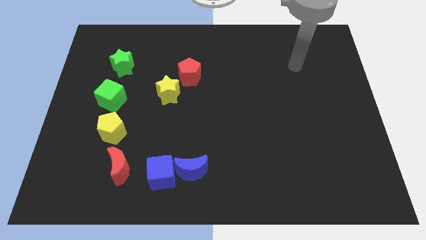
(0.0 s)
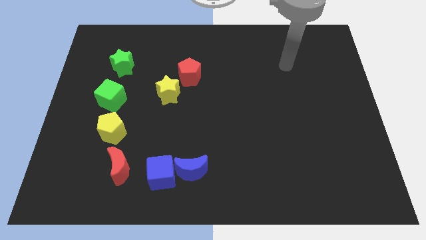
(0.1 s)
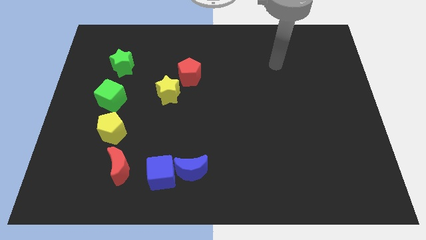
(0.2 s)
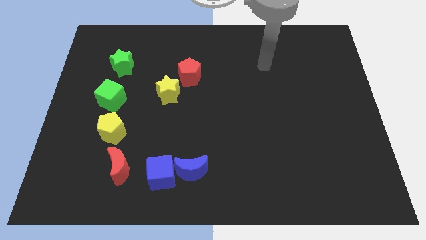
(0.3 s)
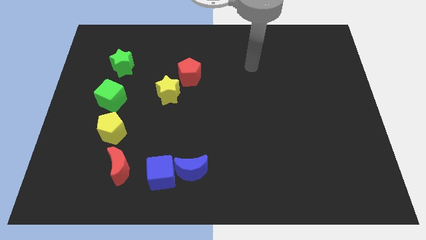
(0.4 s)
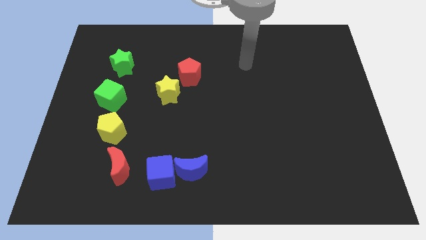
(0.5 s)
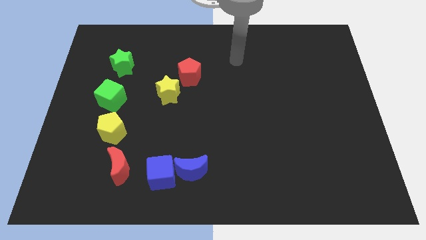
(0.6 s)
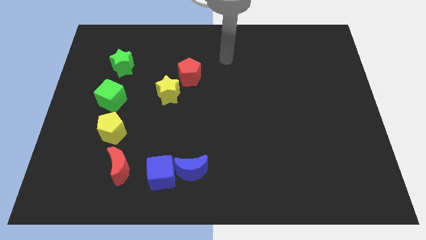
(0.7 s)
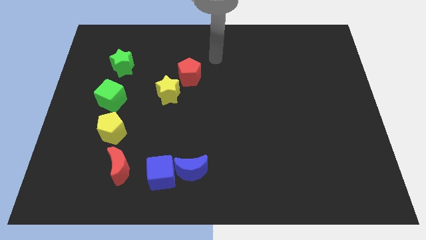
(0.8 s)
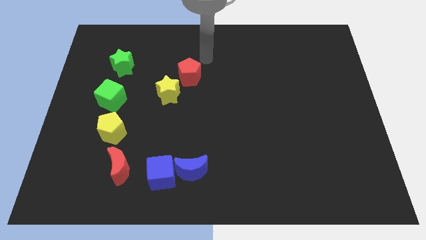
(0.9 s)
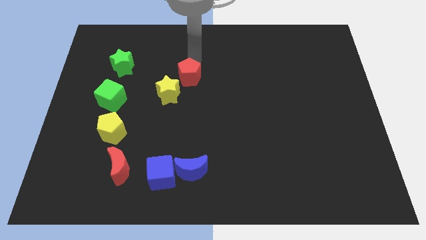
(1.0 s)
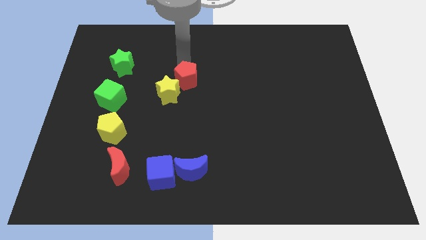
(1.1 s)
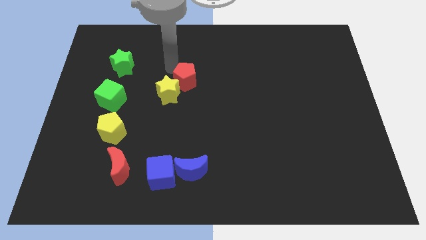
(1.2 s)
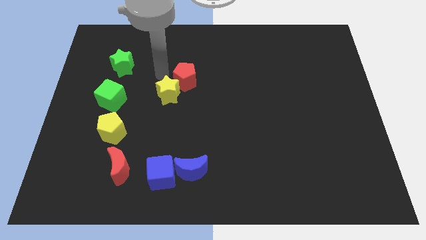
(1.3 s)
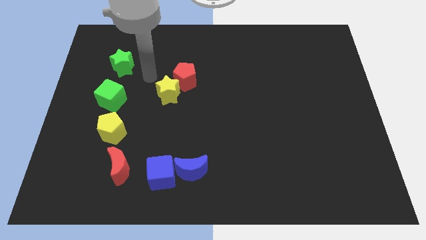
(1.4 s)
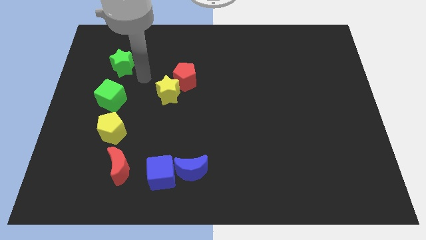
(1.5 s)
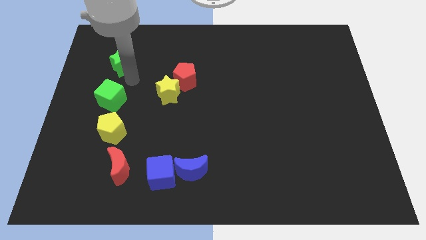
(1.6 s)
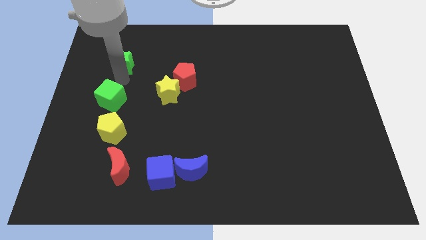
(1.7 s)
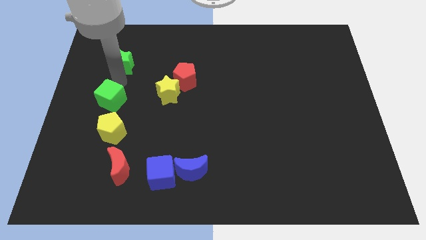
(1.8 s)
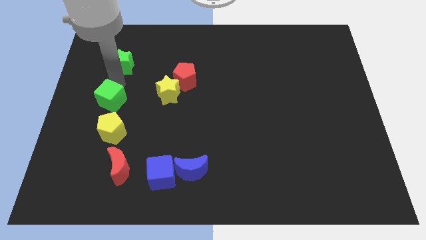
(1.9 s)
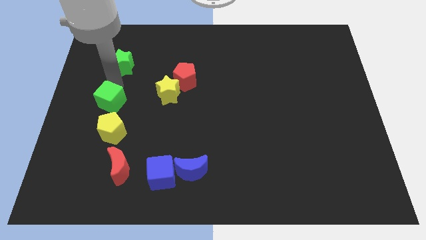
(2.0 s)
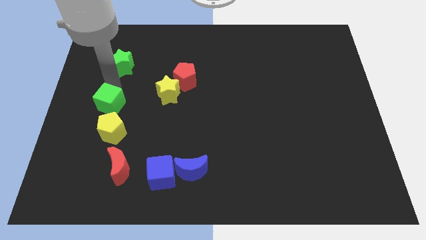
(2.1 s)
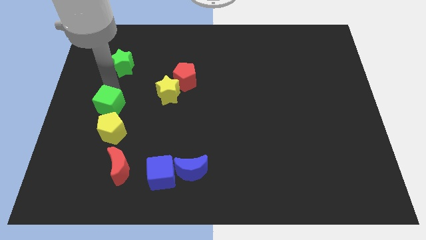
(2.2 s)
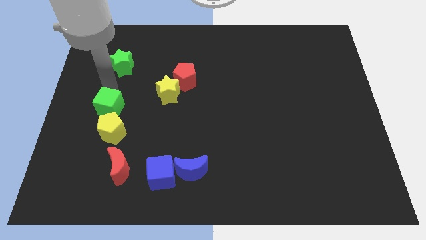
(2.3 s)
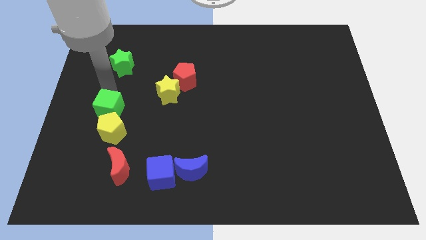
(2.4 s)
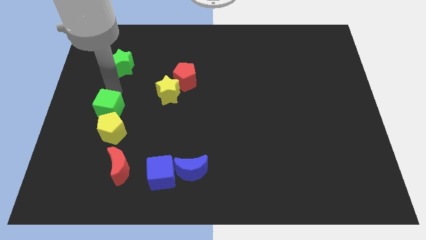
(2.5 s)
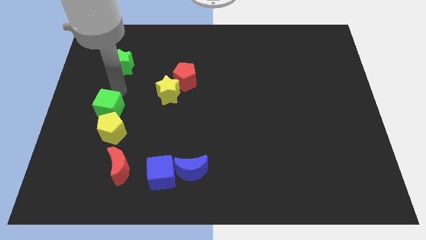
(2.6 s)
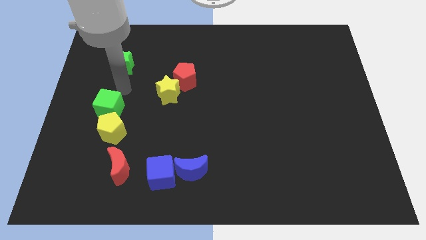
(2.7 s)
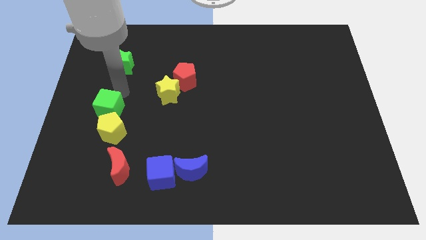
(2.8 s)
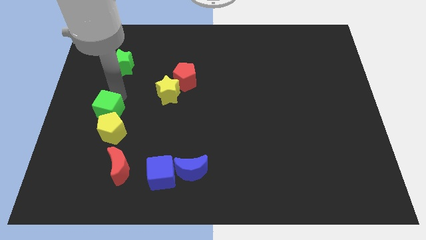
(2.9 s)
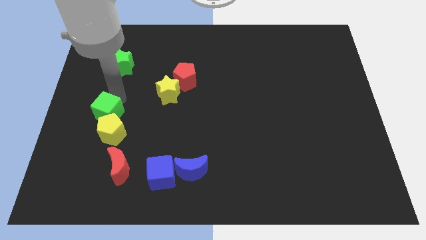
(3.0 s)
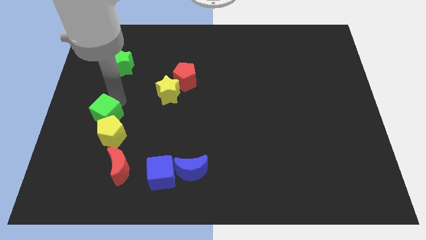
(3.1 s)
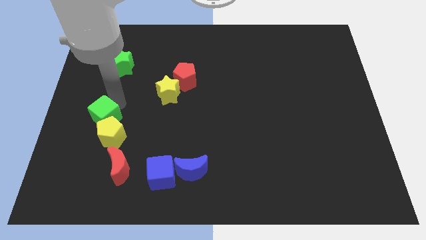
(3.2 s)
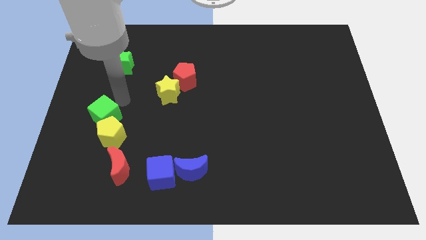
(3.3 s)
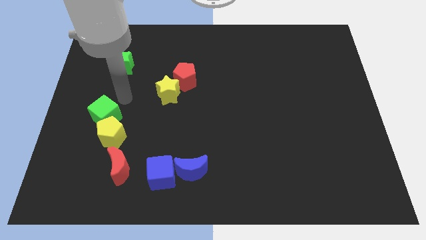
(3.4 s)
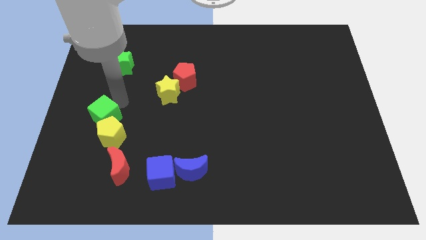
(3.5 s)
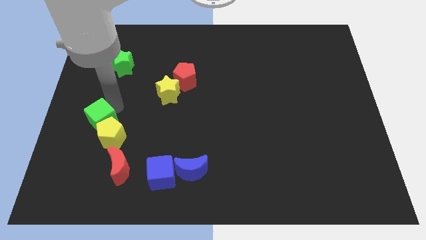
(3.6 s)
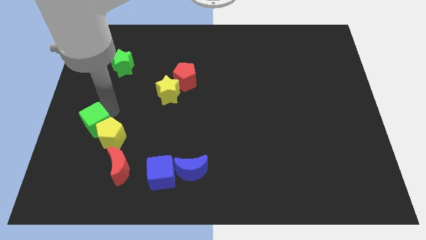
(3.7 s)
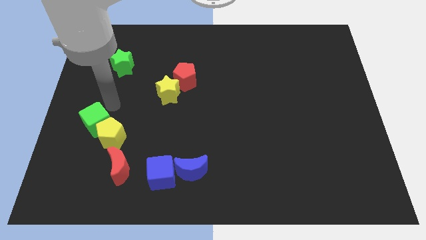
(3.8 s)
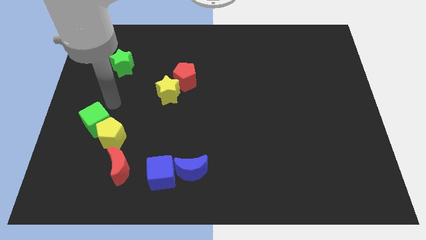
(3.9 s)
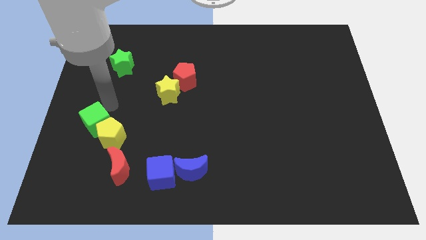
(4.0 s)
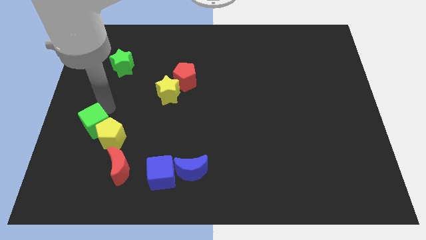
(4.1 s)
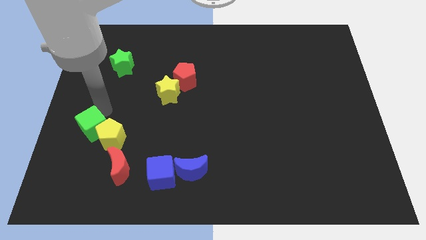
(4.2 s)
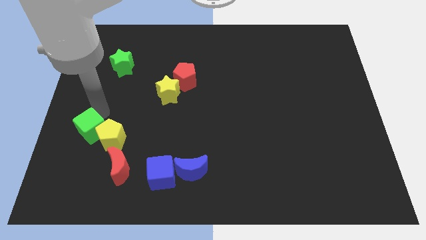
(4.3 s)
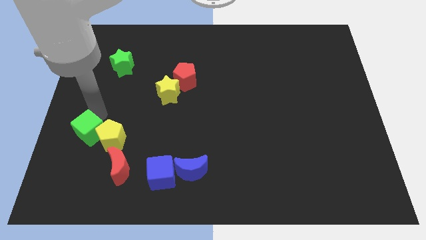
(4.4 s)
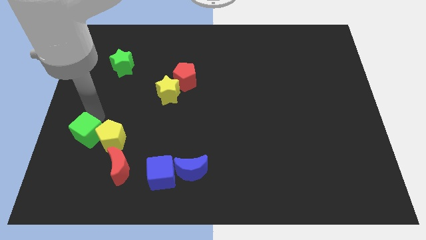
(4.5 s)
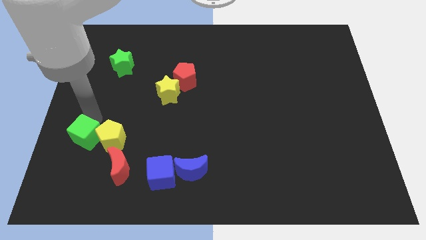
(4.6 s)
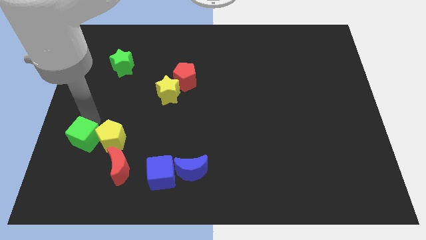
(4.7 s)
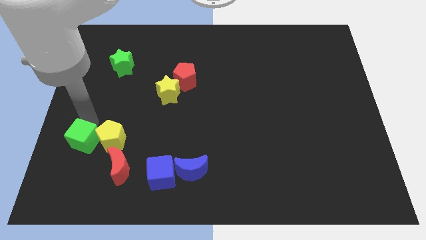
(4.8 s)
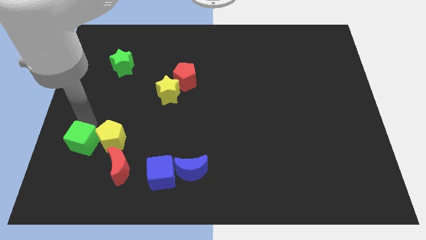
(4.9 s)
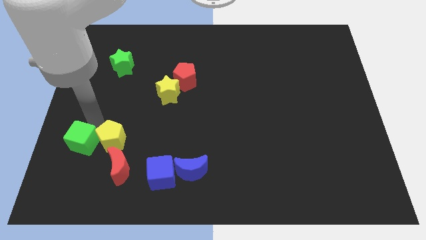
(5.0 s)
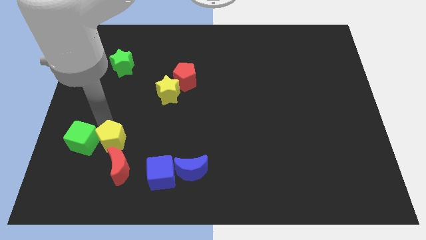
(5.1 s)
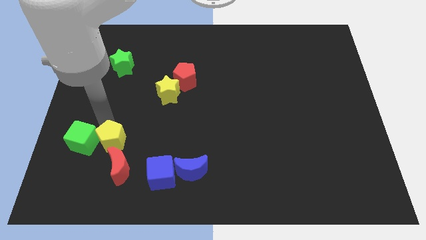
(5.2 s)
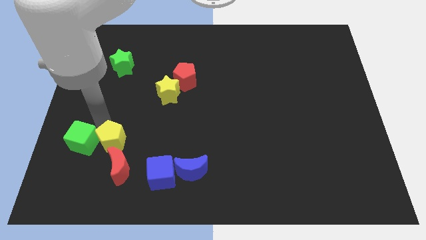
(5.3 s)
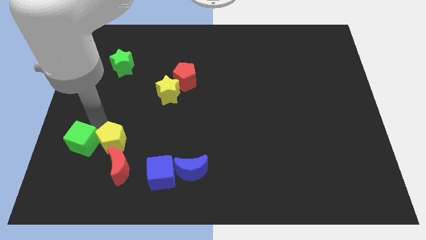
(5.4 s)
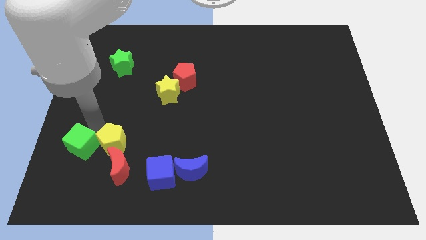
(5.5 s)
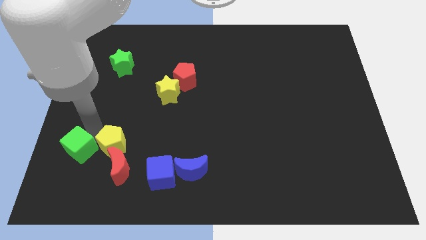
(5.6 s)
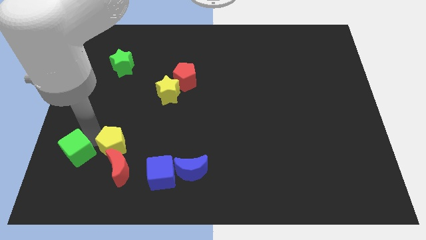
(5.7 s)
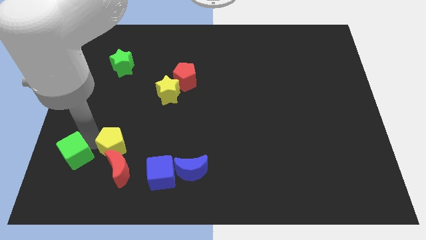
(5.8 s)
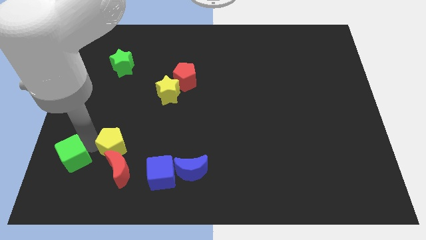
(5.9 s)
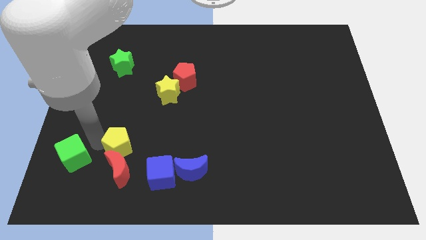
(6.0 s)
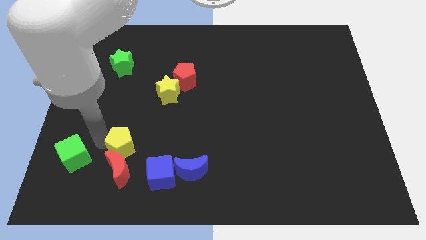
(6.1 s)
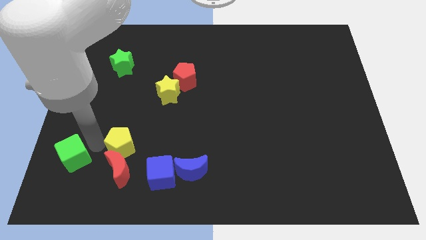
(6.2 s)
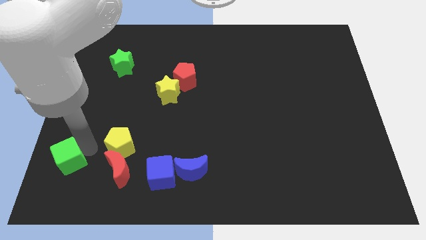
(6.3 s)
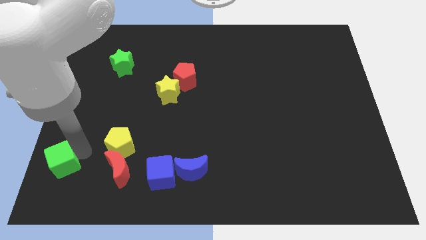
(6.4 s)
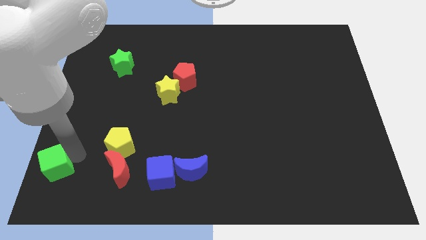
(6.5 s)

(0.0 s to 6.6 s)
put the green cube to the lower left corner
